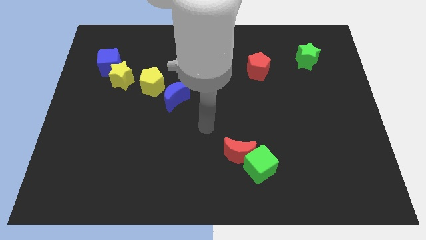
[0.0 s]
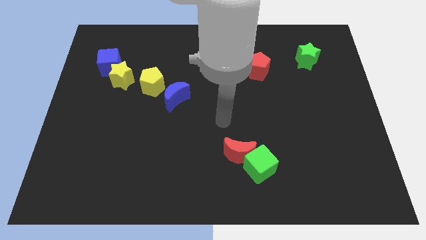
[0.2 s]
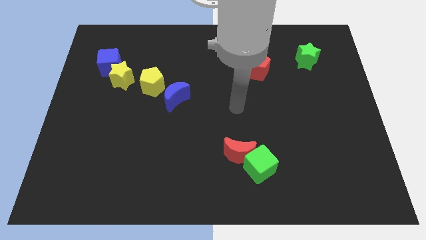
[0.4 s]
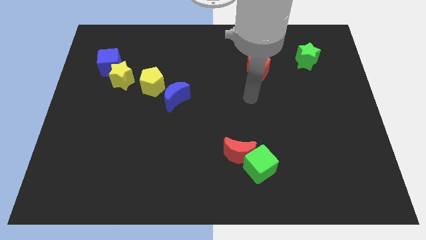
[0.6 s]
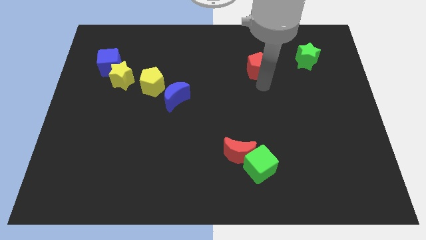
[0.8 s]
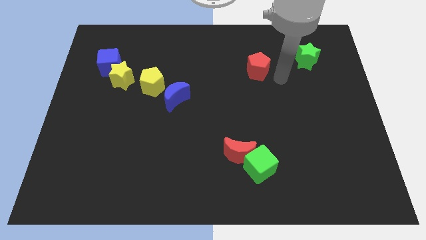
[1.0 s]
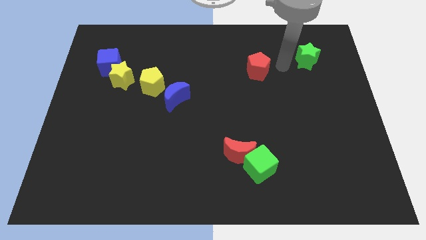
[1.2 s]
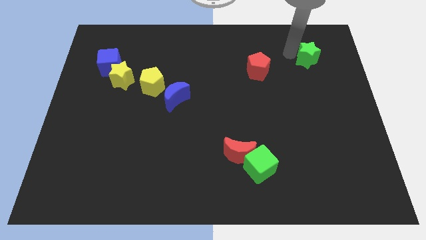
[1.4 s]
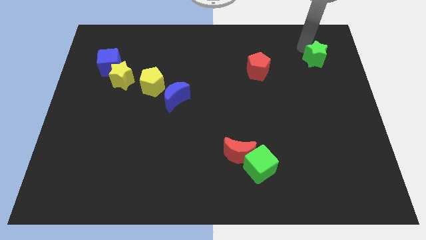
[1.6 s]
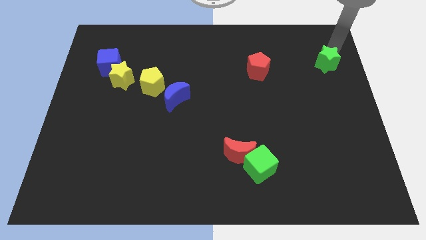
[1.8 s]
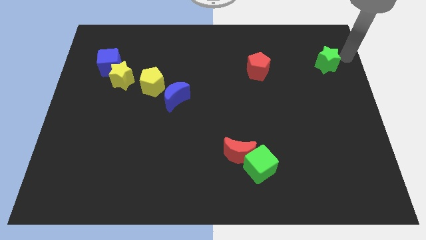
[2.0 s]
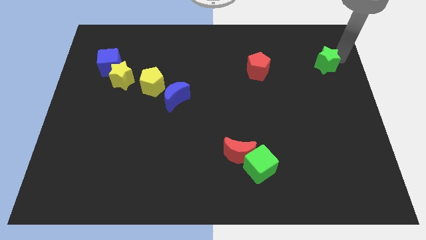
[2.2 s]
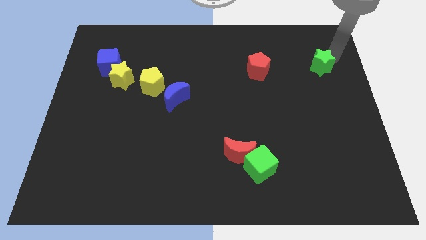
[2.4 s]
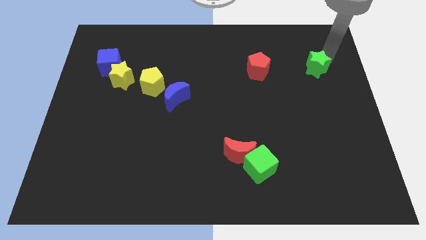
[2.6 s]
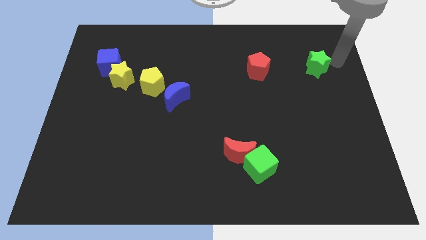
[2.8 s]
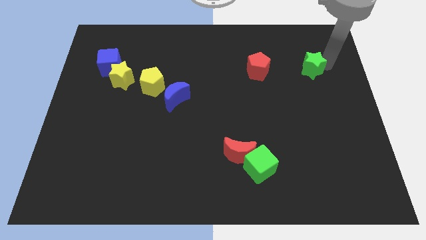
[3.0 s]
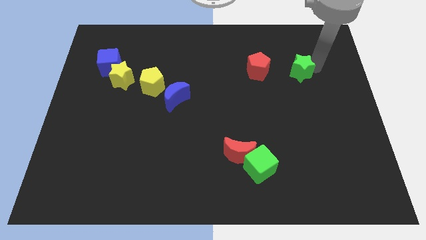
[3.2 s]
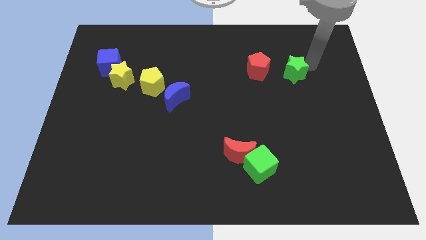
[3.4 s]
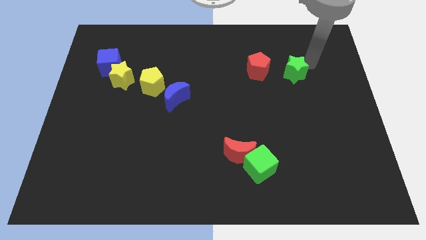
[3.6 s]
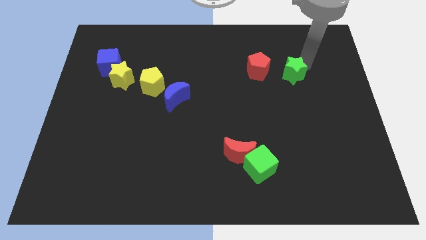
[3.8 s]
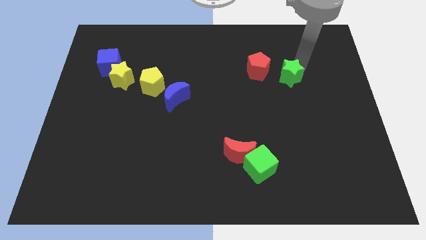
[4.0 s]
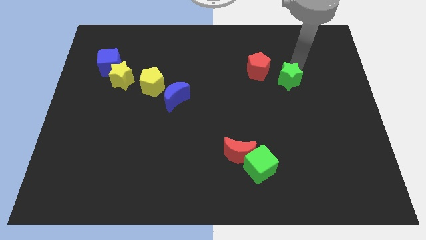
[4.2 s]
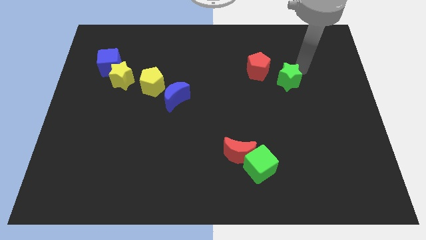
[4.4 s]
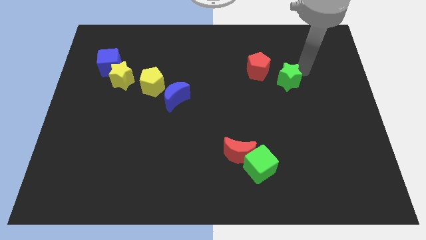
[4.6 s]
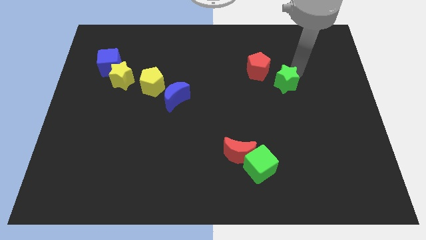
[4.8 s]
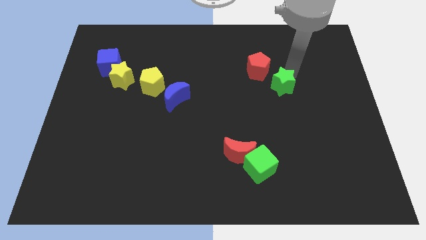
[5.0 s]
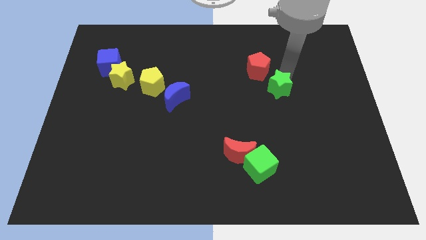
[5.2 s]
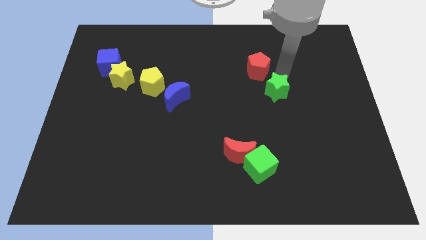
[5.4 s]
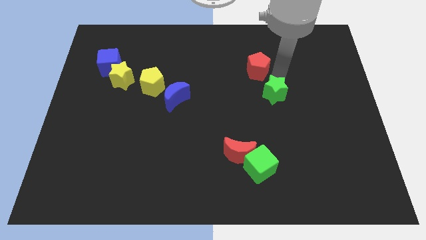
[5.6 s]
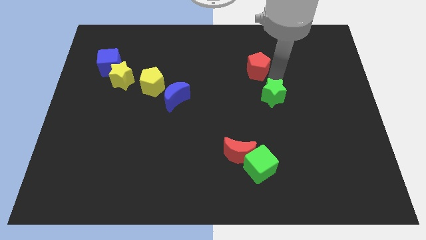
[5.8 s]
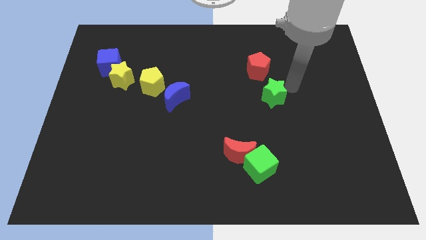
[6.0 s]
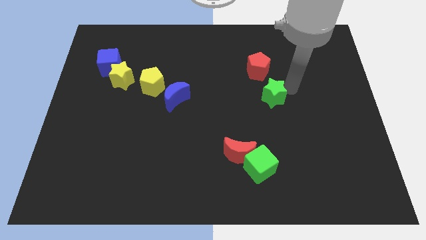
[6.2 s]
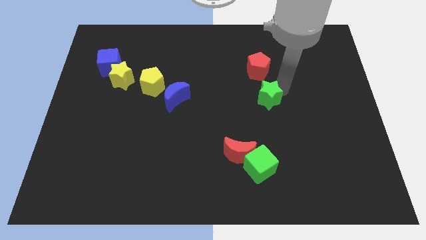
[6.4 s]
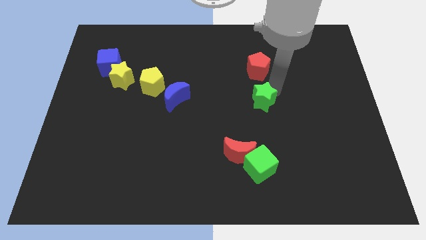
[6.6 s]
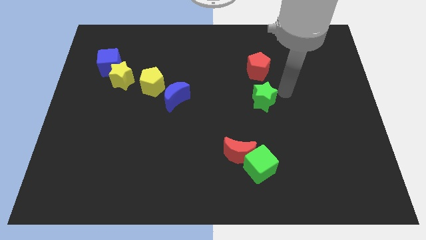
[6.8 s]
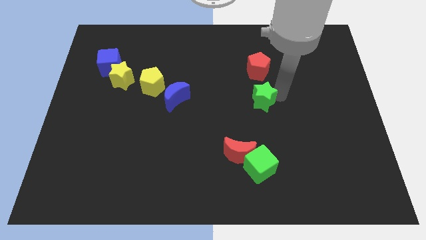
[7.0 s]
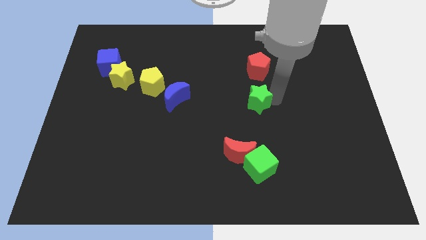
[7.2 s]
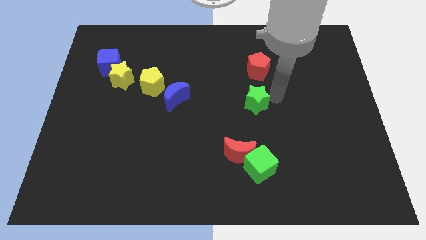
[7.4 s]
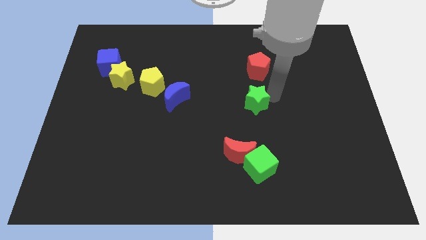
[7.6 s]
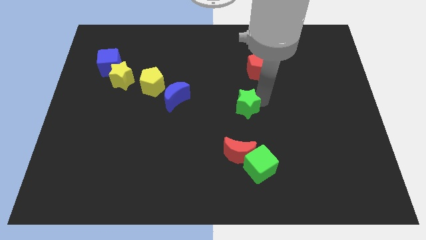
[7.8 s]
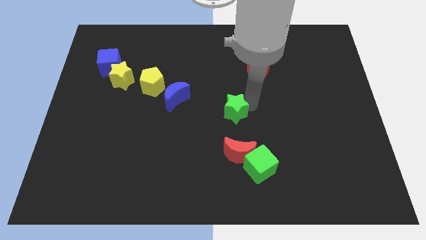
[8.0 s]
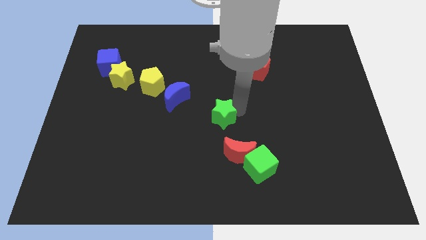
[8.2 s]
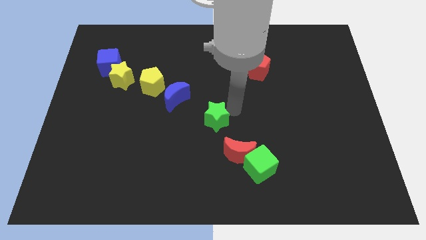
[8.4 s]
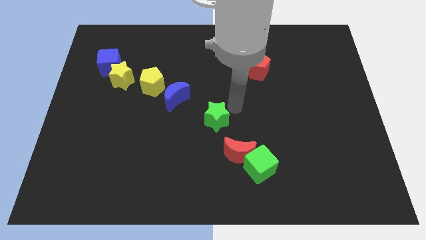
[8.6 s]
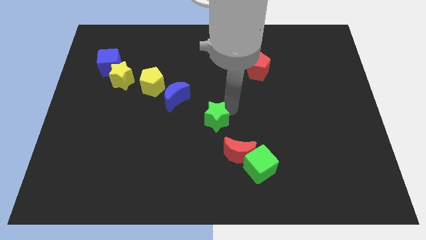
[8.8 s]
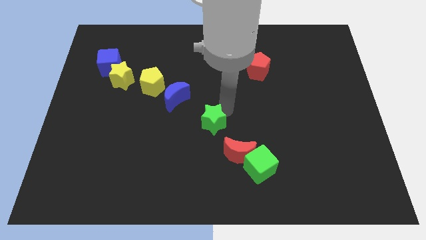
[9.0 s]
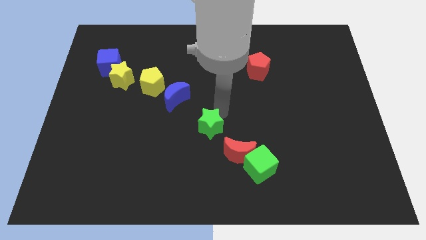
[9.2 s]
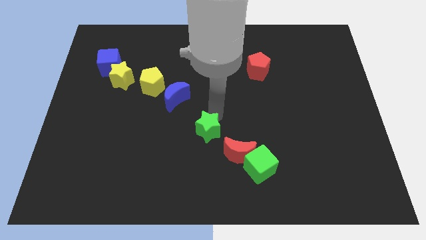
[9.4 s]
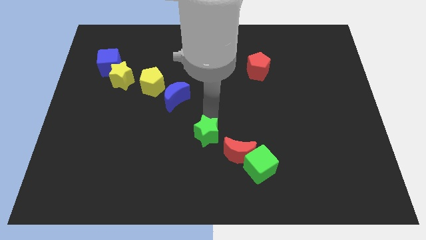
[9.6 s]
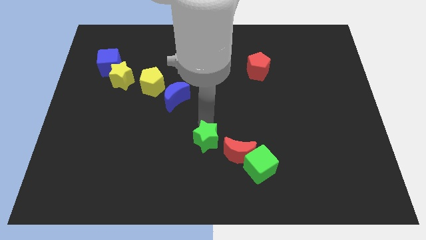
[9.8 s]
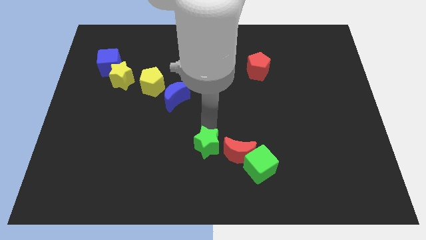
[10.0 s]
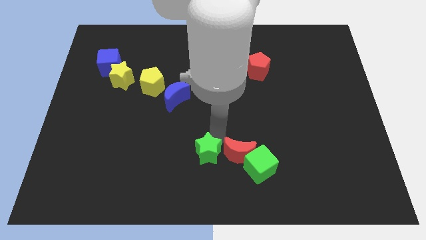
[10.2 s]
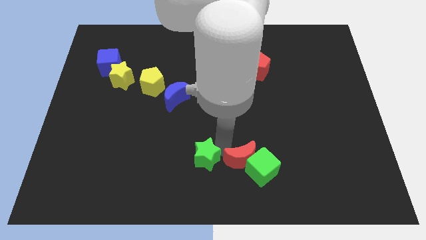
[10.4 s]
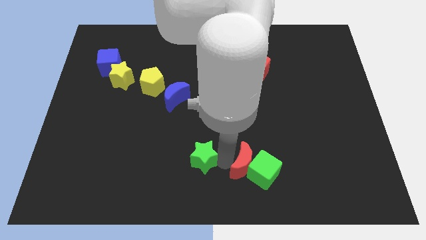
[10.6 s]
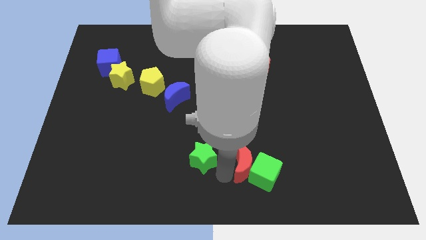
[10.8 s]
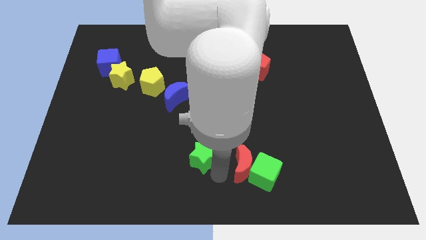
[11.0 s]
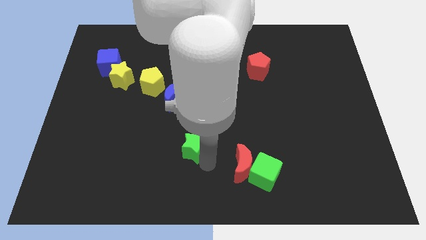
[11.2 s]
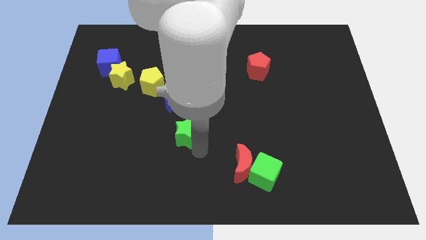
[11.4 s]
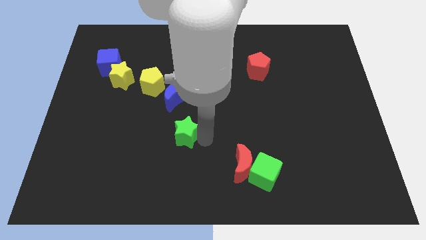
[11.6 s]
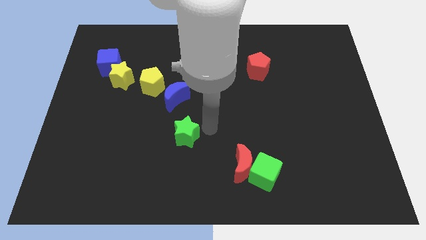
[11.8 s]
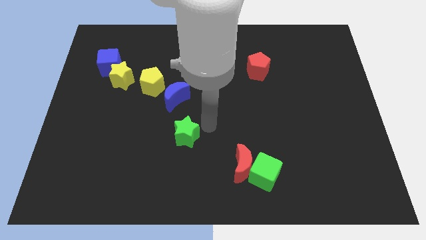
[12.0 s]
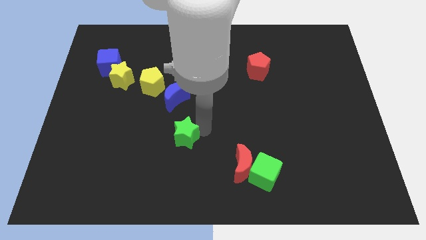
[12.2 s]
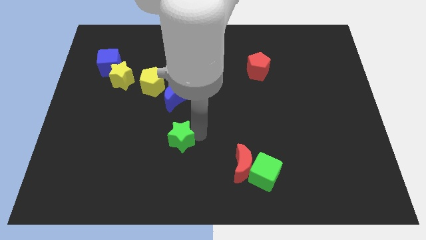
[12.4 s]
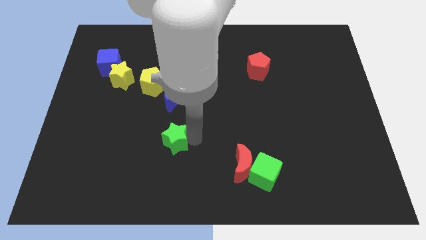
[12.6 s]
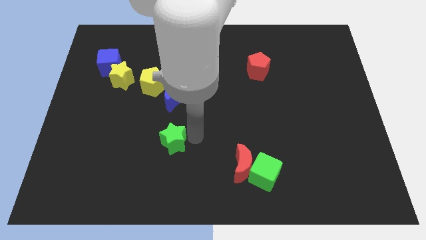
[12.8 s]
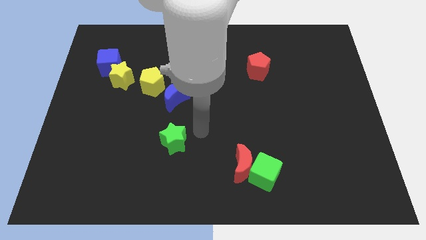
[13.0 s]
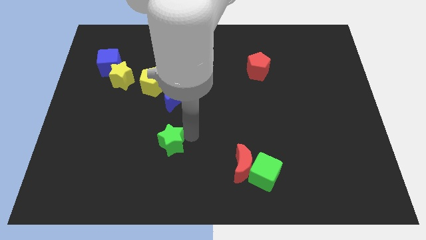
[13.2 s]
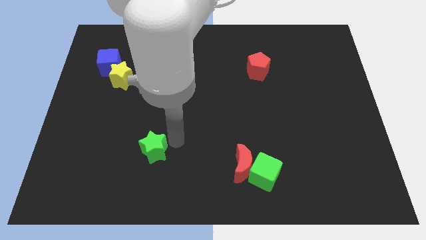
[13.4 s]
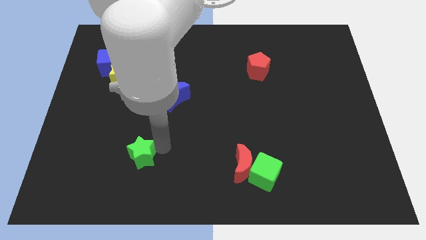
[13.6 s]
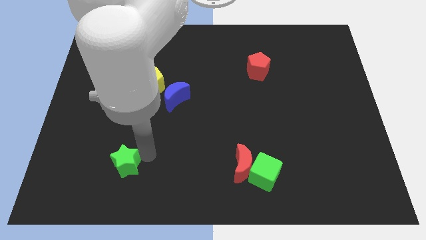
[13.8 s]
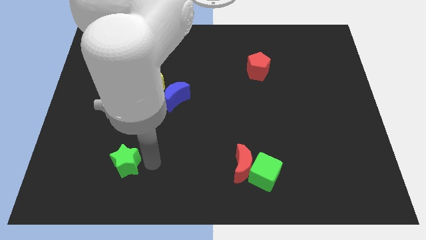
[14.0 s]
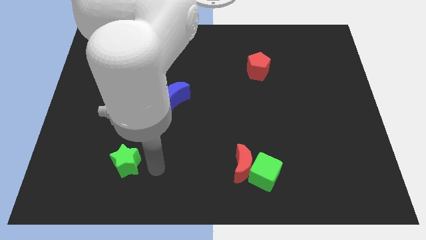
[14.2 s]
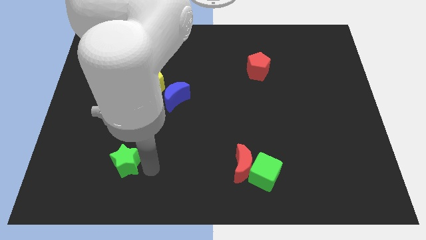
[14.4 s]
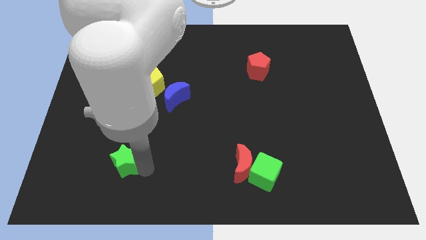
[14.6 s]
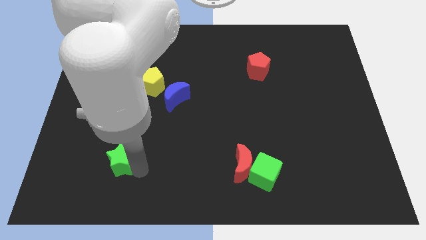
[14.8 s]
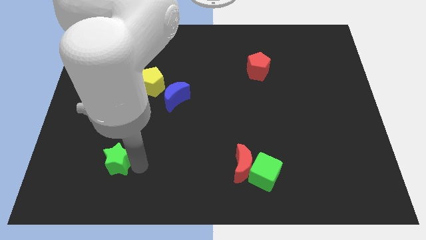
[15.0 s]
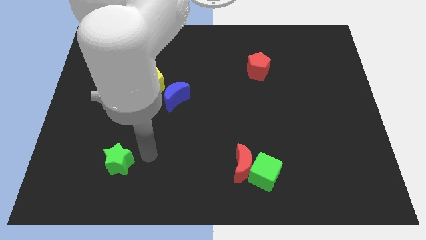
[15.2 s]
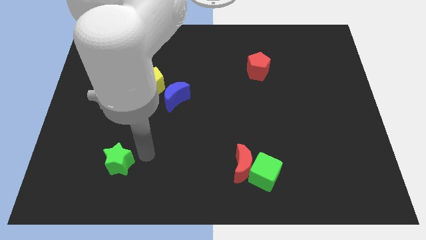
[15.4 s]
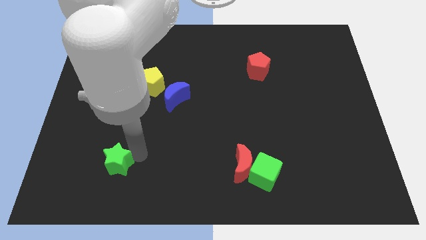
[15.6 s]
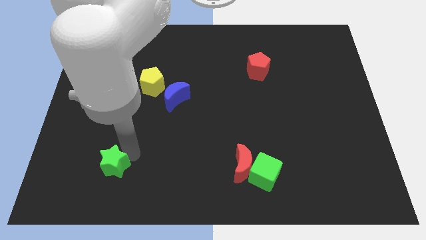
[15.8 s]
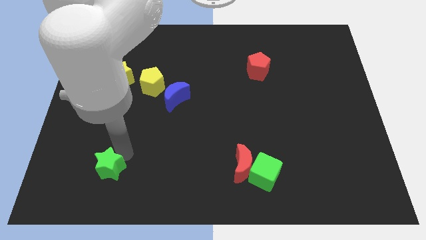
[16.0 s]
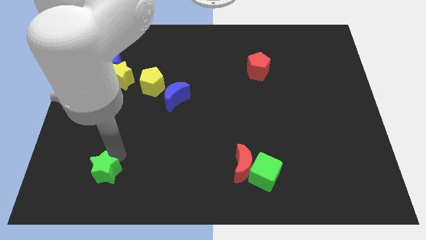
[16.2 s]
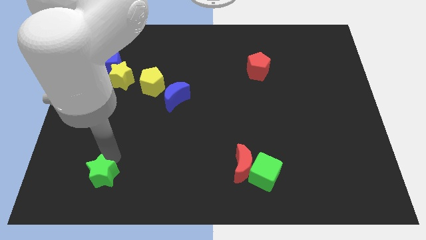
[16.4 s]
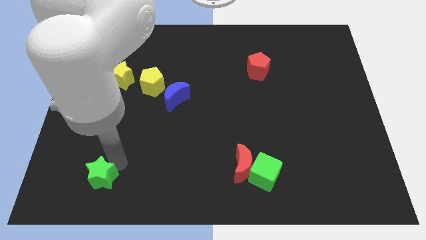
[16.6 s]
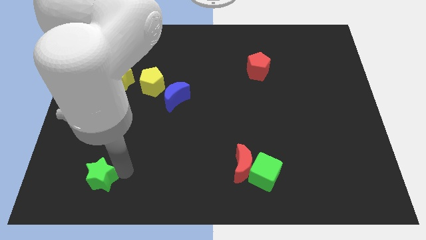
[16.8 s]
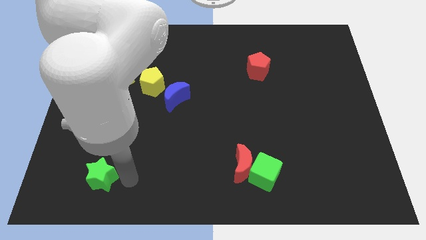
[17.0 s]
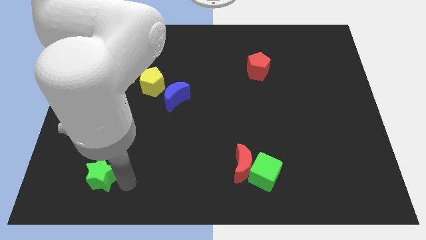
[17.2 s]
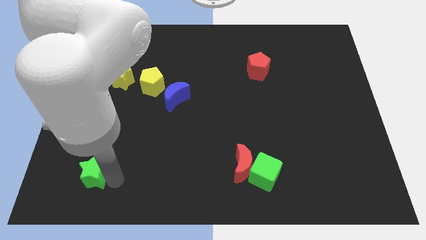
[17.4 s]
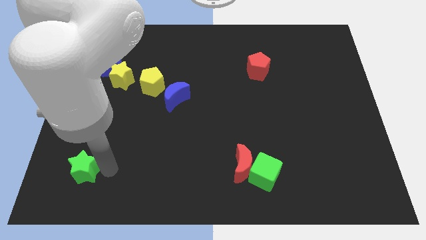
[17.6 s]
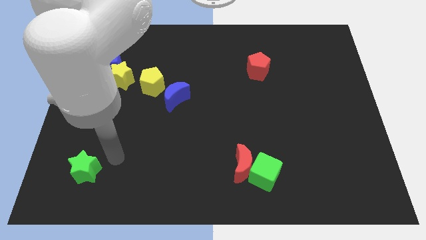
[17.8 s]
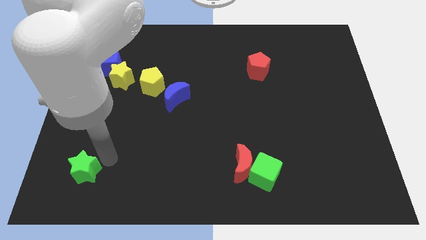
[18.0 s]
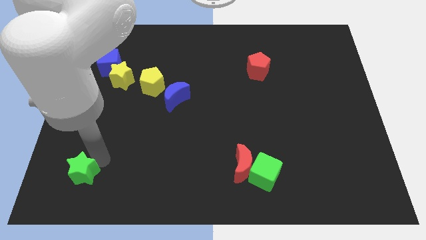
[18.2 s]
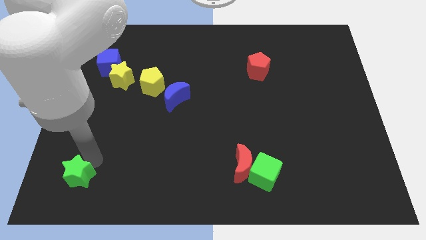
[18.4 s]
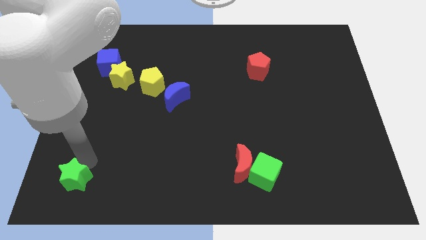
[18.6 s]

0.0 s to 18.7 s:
move the green star to the lower left corner
